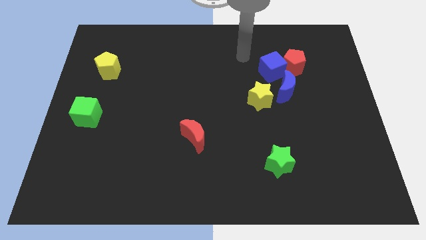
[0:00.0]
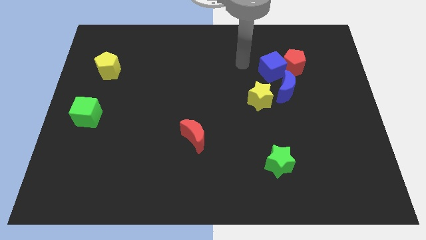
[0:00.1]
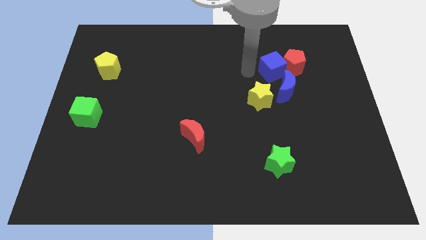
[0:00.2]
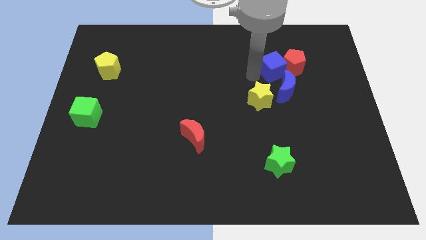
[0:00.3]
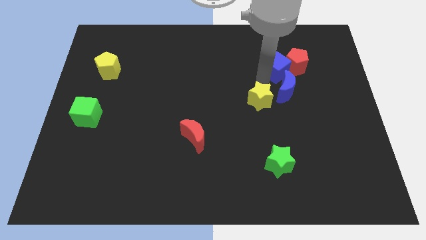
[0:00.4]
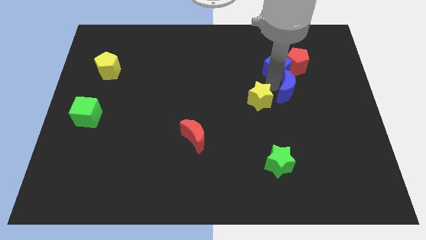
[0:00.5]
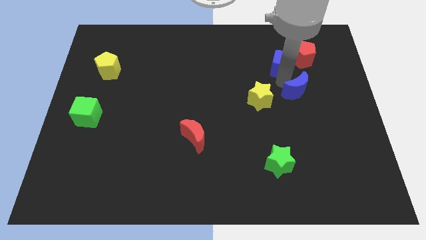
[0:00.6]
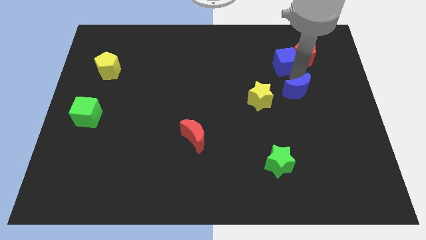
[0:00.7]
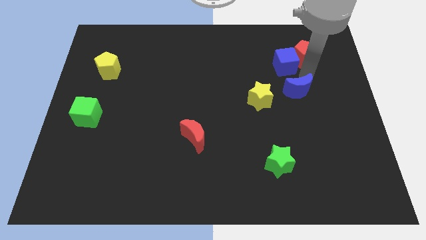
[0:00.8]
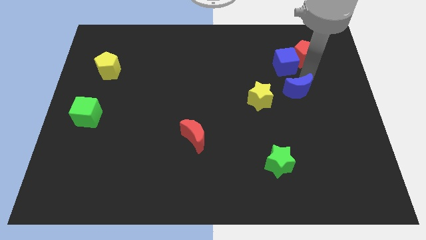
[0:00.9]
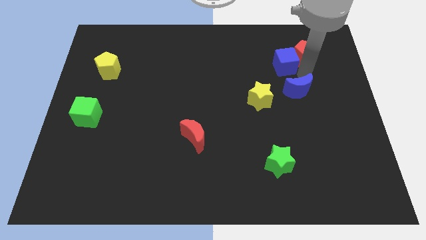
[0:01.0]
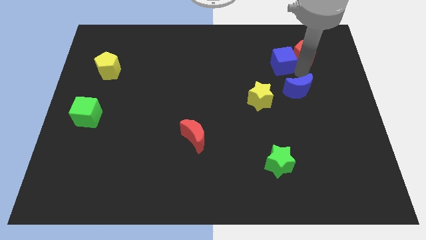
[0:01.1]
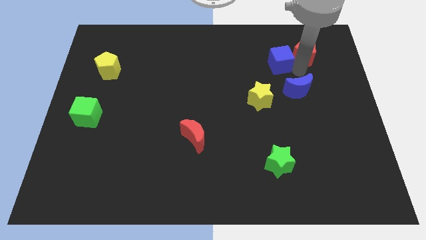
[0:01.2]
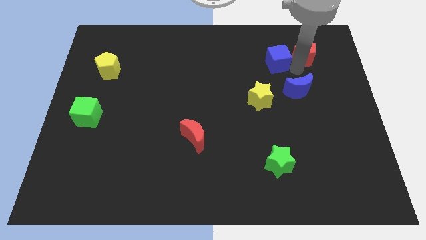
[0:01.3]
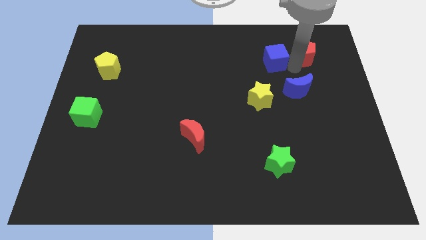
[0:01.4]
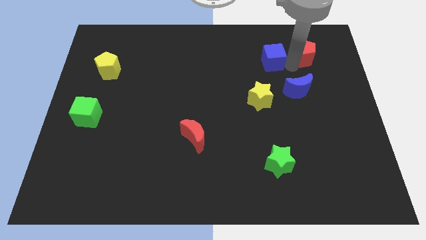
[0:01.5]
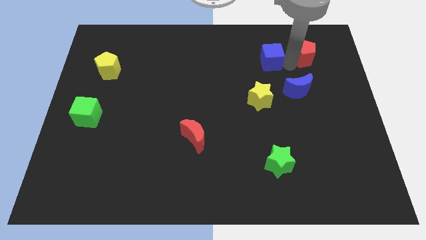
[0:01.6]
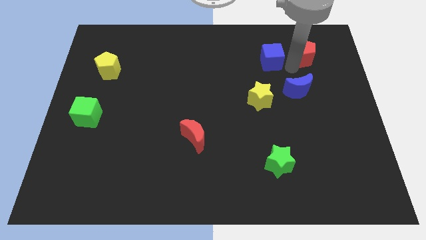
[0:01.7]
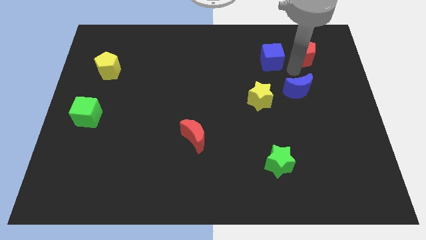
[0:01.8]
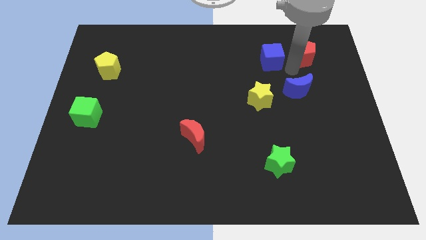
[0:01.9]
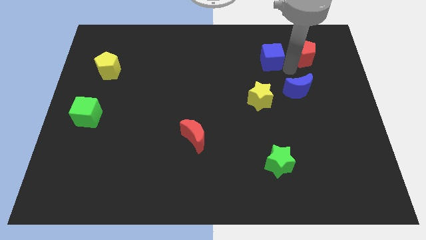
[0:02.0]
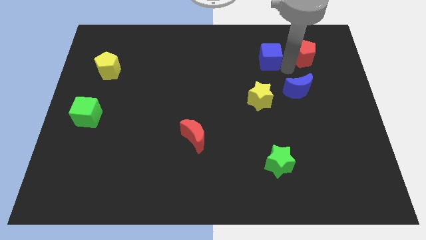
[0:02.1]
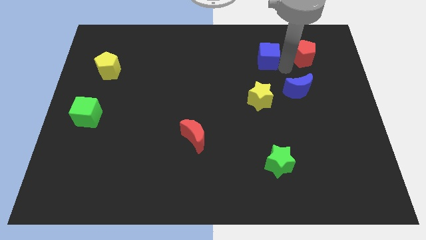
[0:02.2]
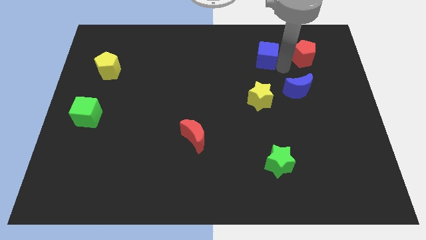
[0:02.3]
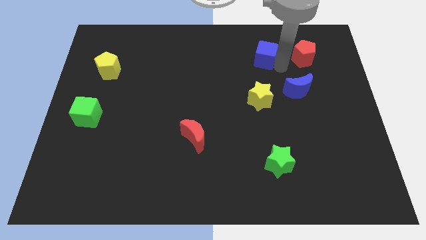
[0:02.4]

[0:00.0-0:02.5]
pull the blue cube apart from the red pentagon and blue moon

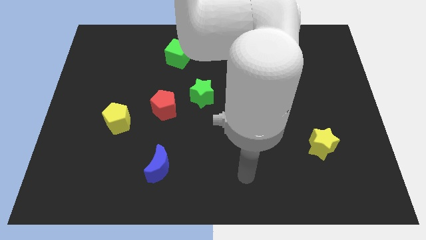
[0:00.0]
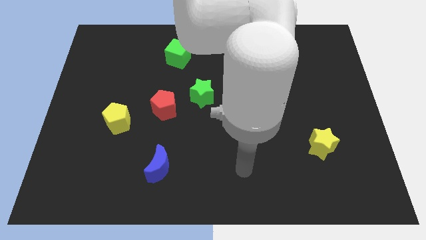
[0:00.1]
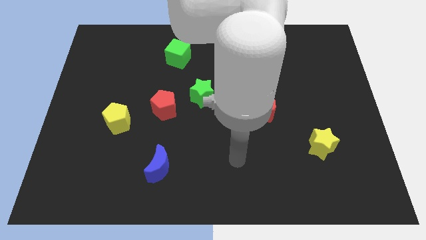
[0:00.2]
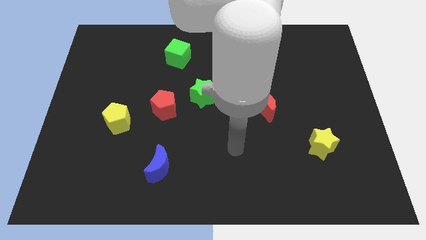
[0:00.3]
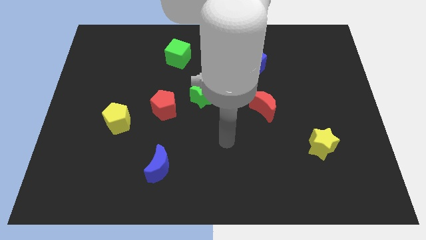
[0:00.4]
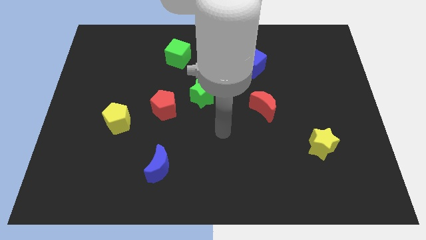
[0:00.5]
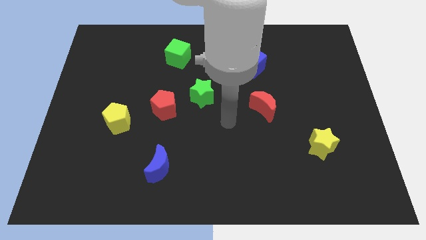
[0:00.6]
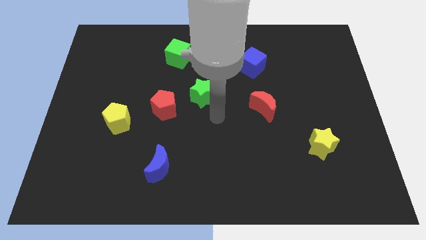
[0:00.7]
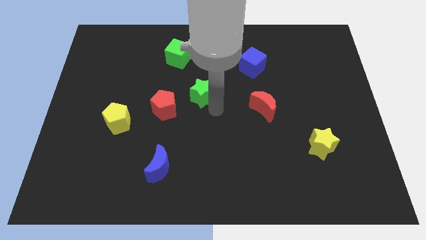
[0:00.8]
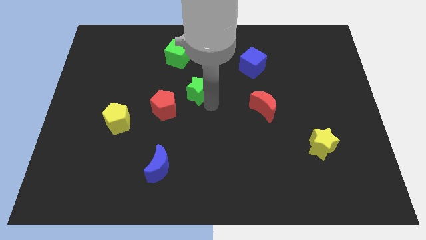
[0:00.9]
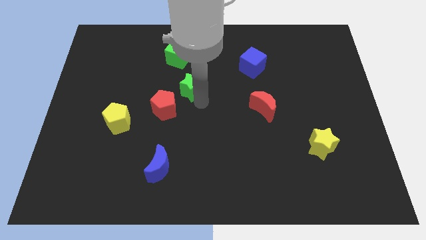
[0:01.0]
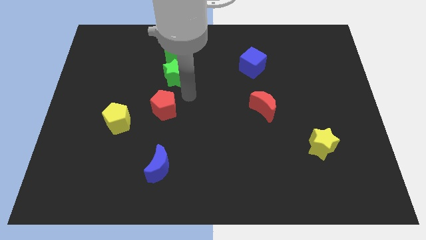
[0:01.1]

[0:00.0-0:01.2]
move the red pentagon away from the green star

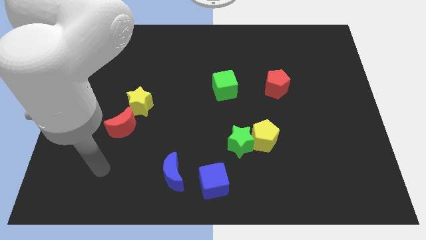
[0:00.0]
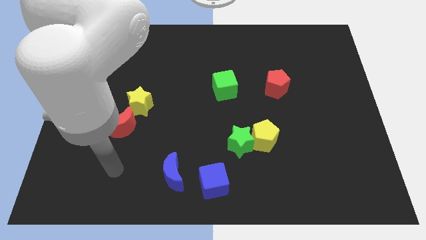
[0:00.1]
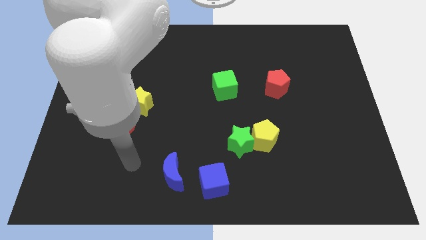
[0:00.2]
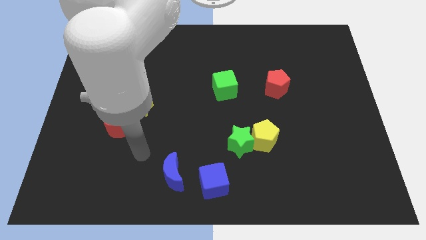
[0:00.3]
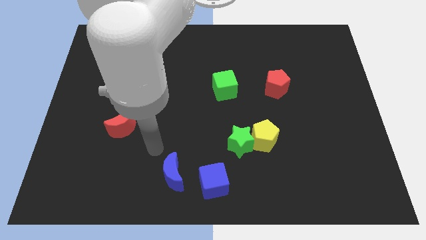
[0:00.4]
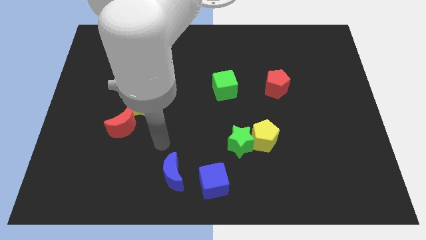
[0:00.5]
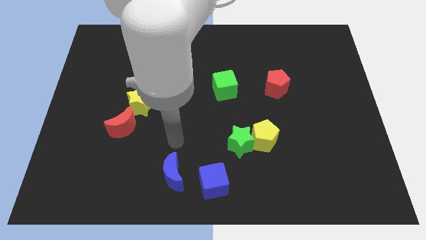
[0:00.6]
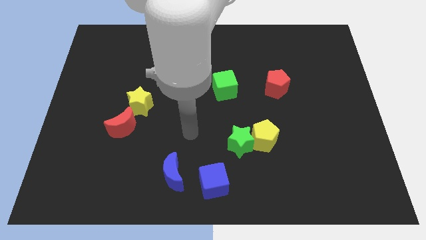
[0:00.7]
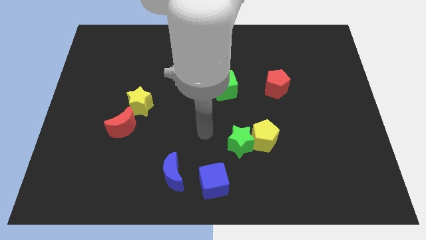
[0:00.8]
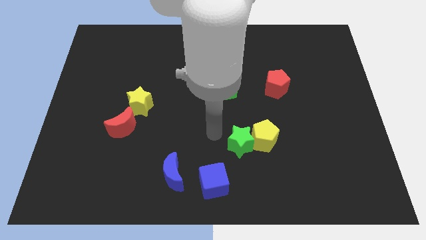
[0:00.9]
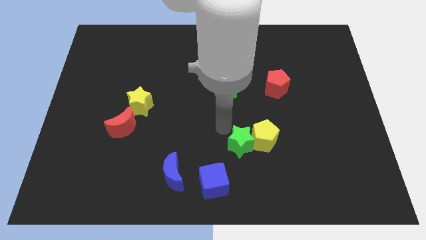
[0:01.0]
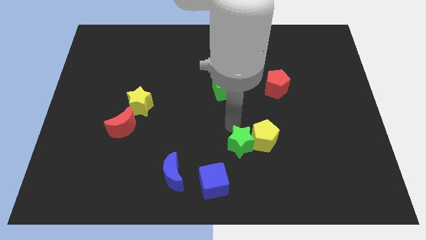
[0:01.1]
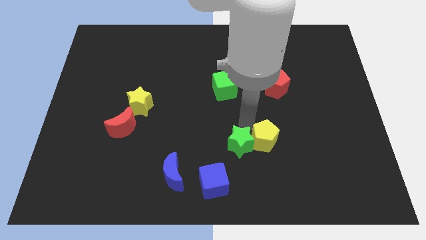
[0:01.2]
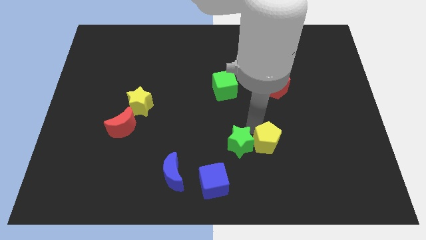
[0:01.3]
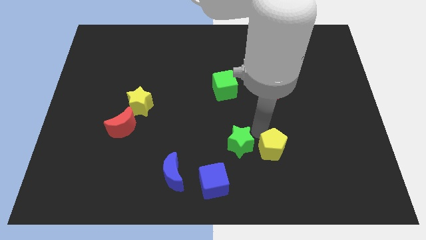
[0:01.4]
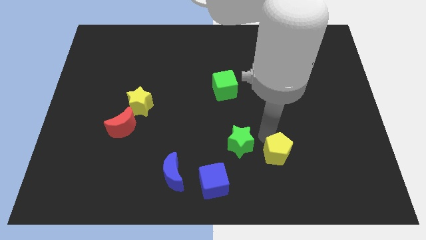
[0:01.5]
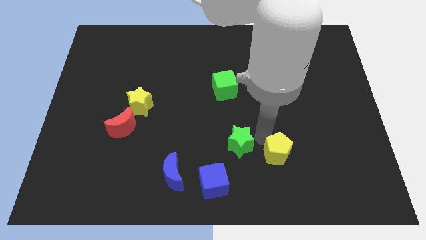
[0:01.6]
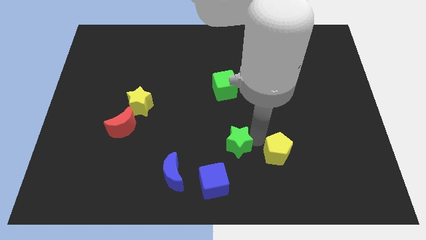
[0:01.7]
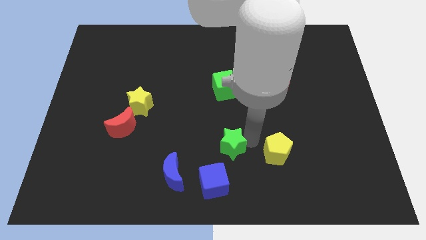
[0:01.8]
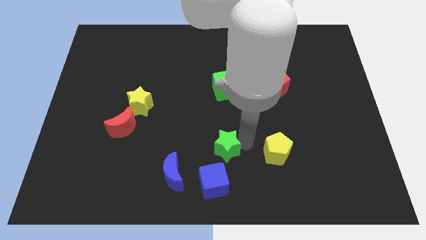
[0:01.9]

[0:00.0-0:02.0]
separate the green star from the yellow pentagon

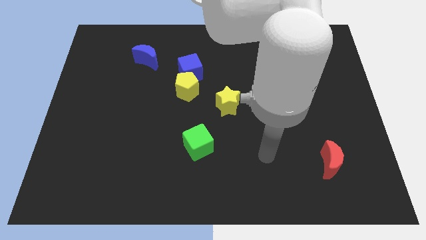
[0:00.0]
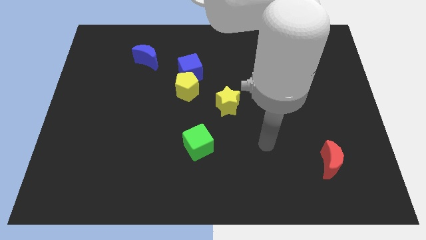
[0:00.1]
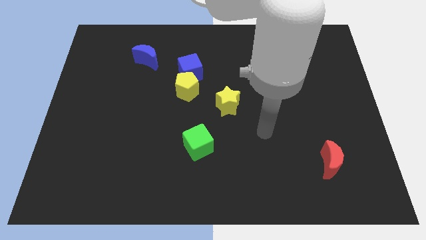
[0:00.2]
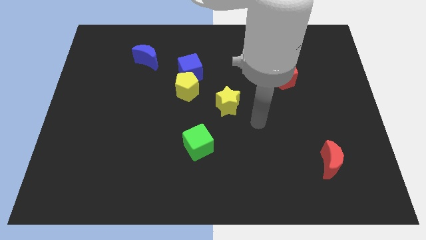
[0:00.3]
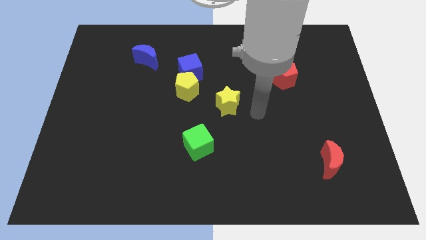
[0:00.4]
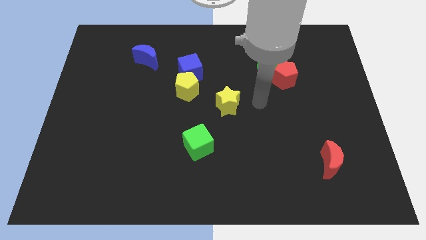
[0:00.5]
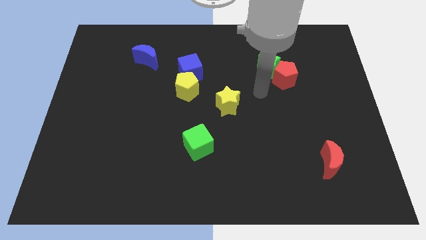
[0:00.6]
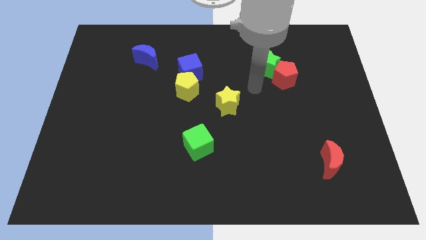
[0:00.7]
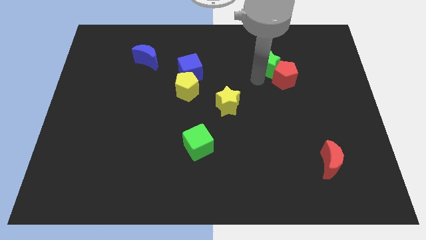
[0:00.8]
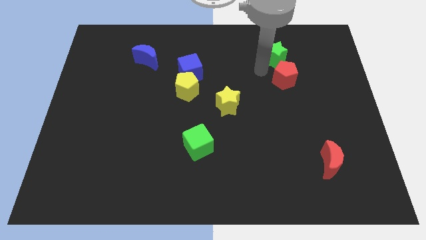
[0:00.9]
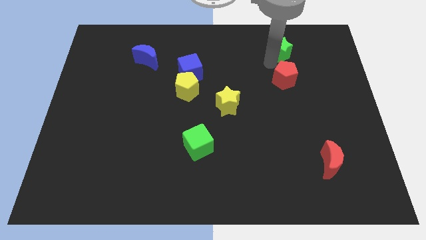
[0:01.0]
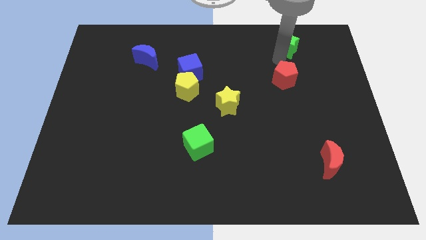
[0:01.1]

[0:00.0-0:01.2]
separate the red pentagon from the green star

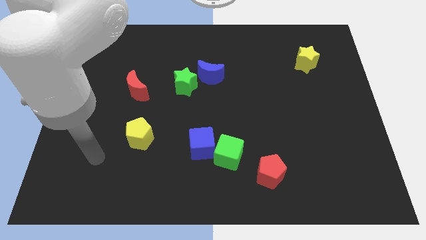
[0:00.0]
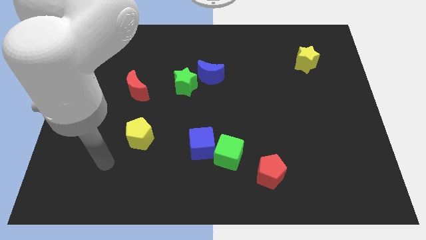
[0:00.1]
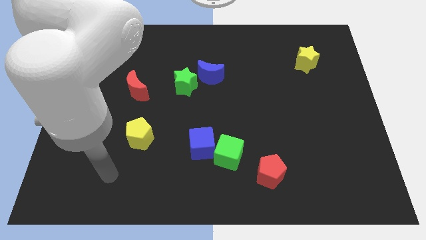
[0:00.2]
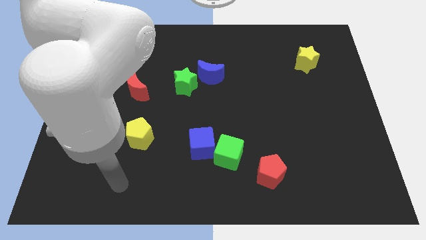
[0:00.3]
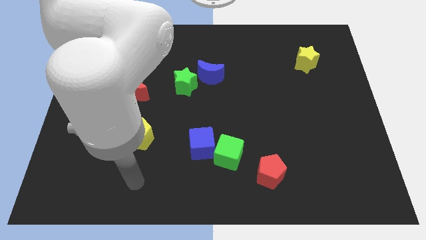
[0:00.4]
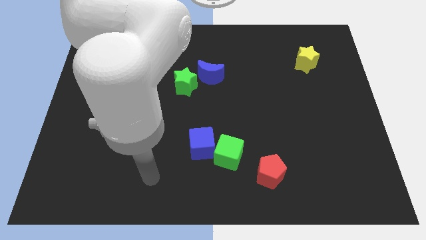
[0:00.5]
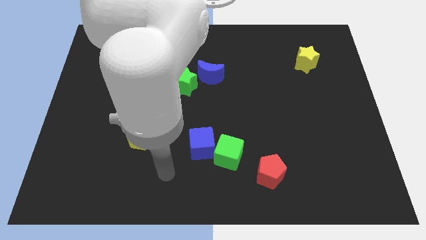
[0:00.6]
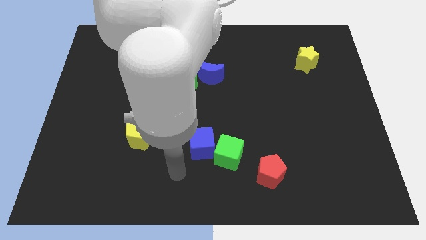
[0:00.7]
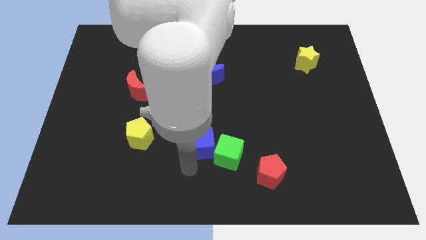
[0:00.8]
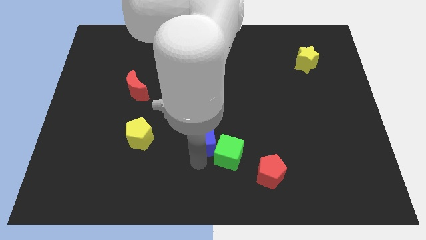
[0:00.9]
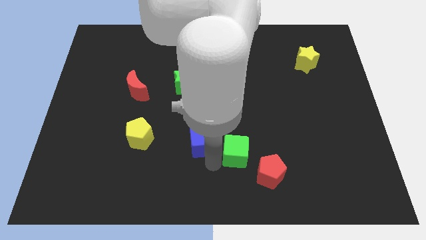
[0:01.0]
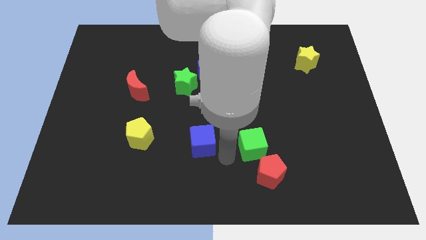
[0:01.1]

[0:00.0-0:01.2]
separate the blue cube from the green cube

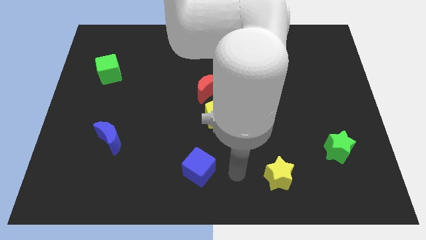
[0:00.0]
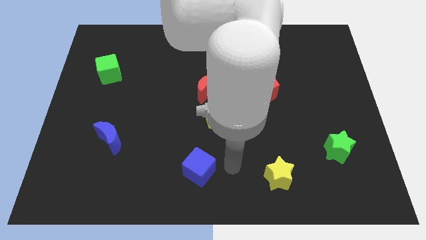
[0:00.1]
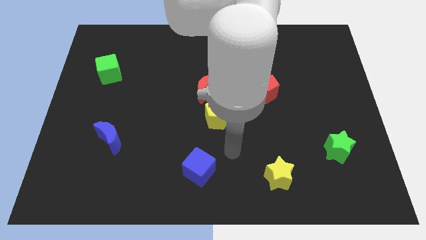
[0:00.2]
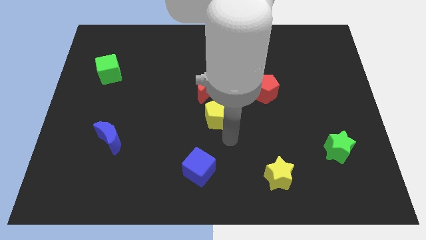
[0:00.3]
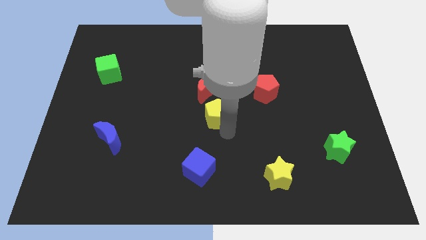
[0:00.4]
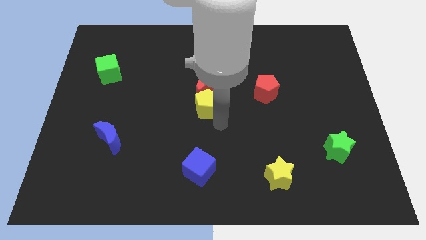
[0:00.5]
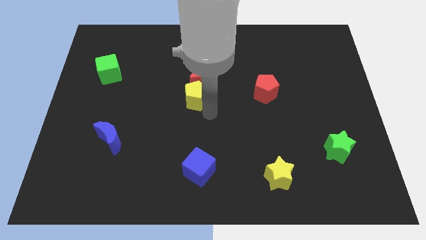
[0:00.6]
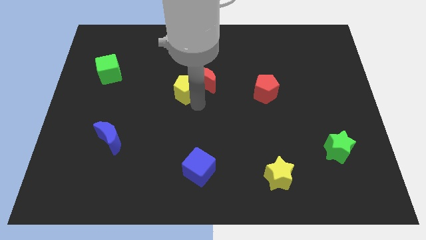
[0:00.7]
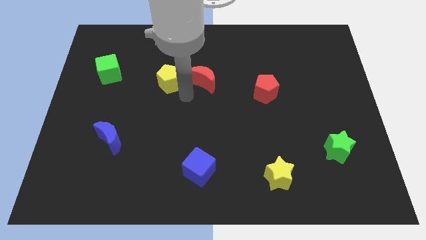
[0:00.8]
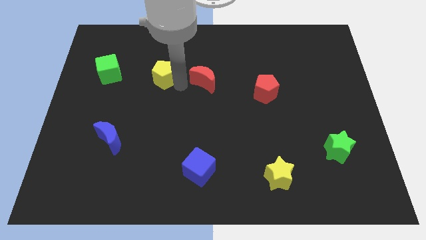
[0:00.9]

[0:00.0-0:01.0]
move the red moon away from the yellow pentagon

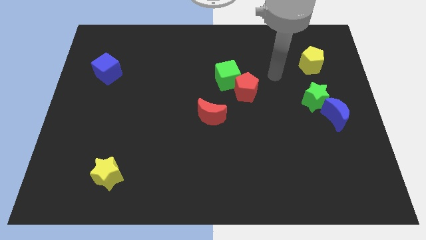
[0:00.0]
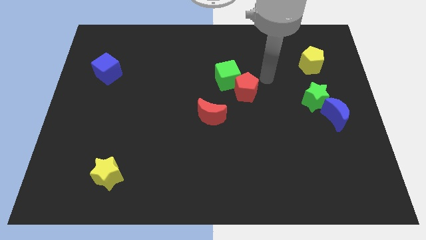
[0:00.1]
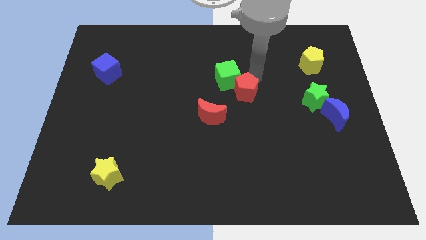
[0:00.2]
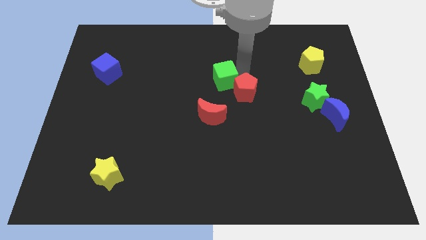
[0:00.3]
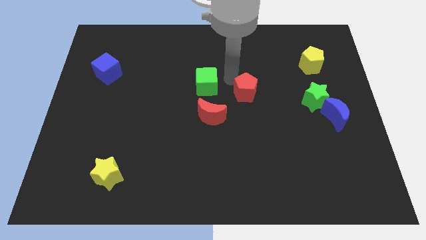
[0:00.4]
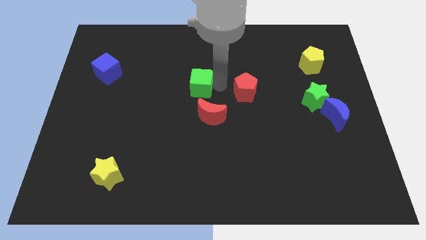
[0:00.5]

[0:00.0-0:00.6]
separate the red pentagon from the green cube
